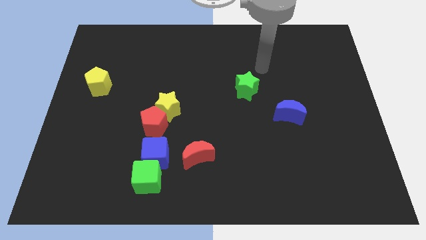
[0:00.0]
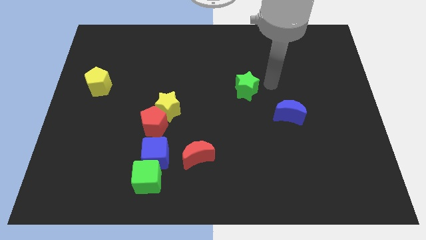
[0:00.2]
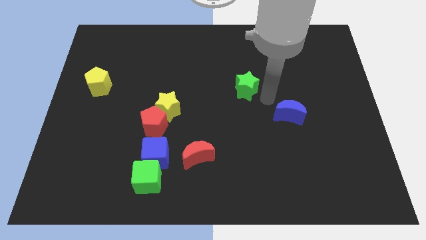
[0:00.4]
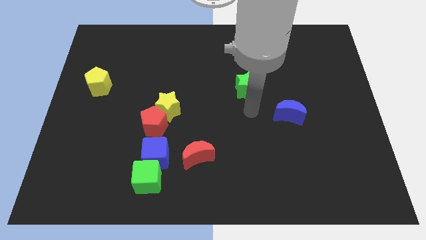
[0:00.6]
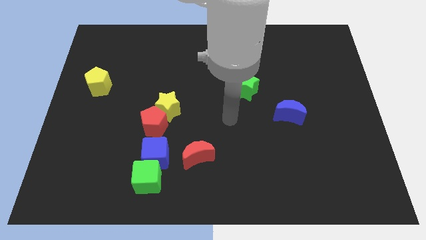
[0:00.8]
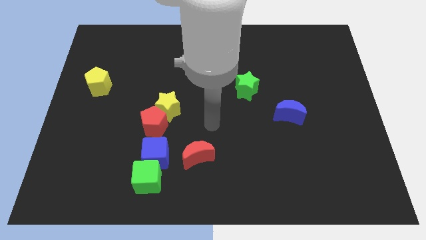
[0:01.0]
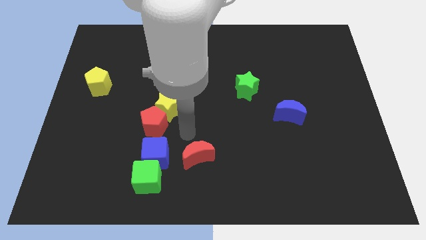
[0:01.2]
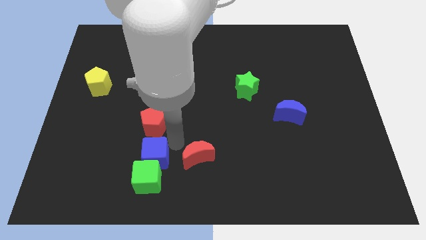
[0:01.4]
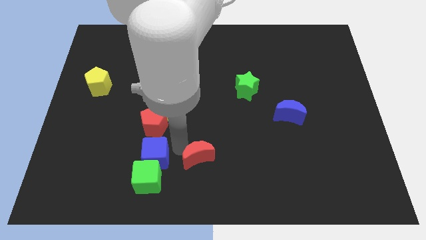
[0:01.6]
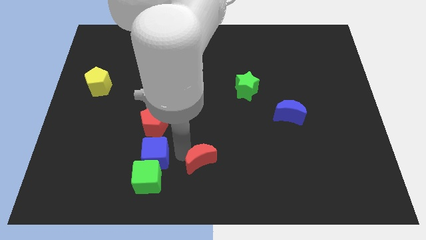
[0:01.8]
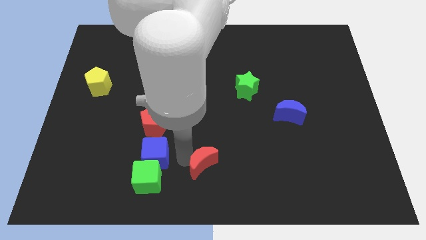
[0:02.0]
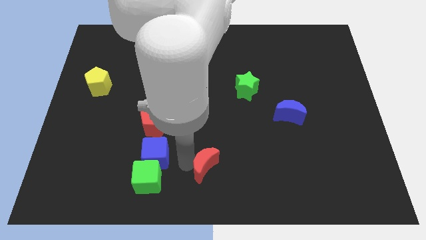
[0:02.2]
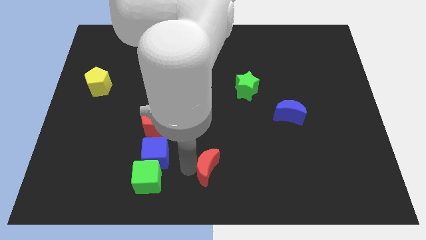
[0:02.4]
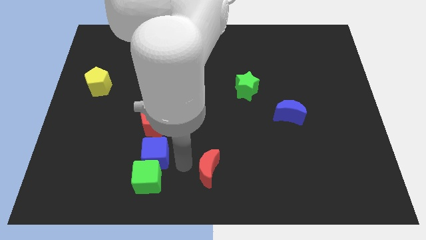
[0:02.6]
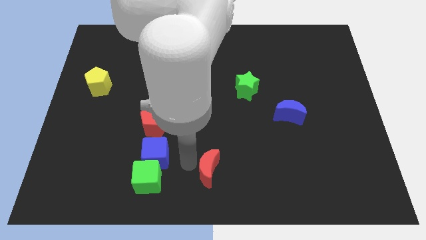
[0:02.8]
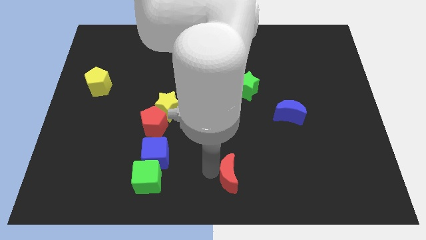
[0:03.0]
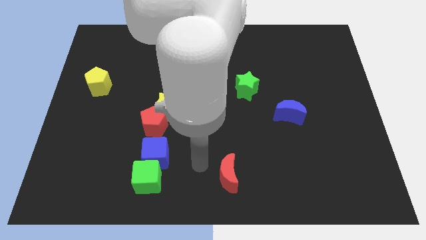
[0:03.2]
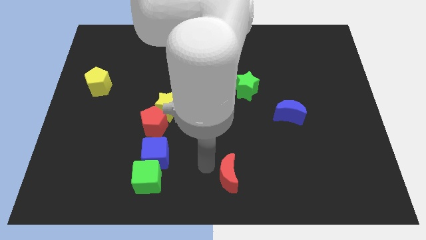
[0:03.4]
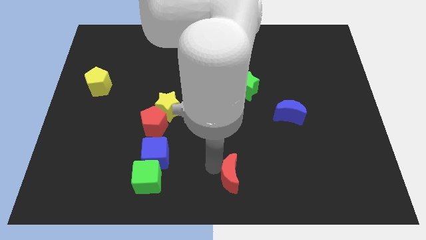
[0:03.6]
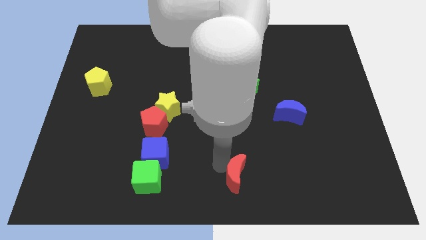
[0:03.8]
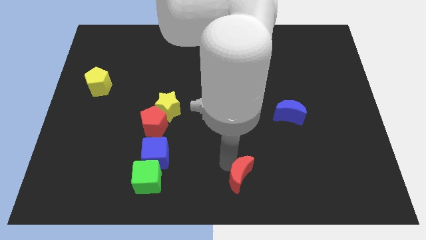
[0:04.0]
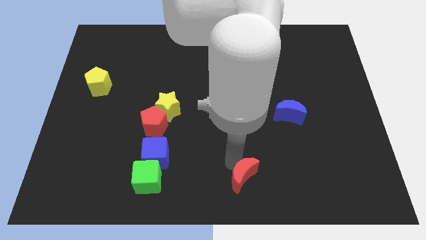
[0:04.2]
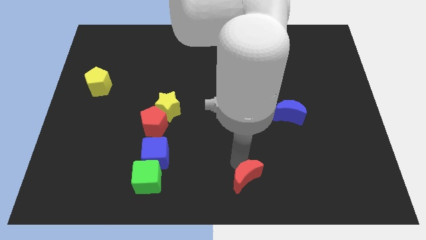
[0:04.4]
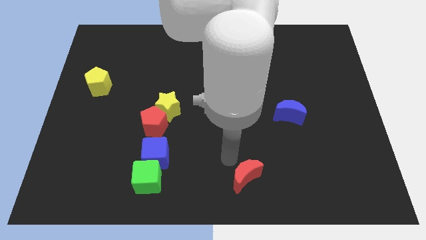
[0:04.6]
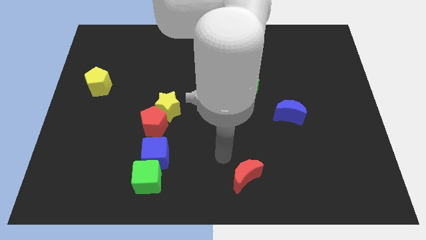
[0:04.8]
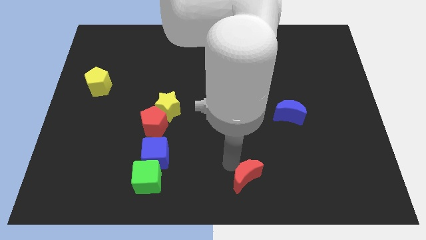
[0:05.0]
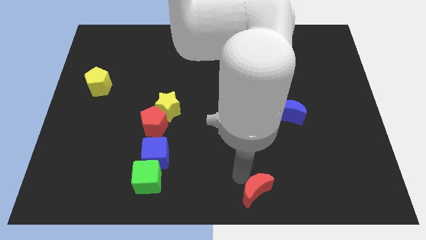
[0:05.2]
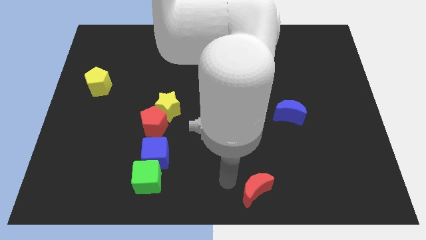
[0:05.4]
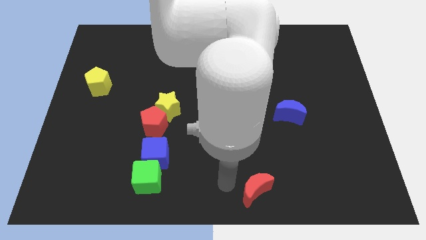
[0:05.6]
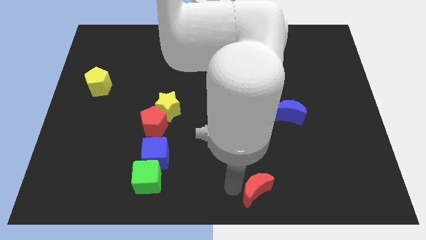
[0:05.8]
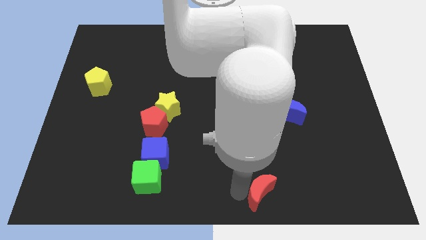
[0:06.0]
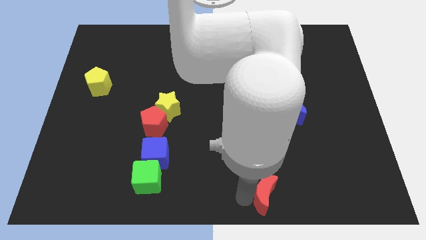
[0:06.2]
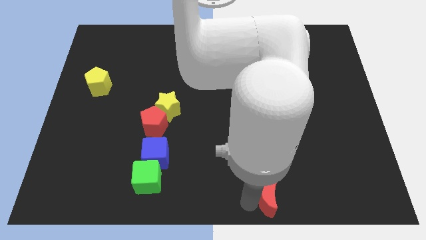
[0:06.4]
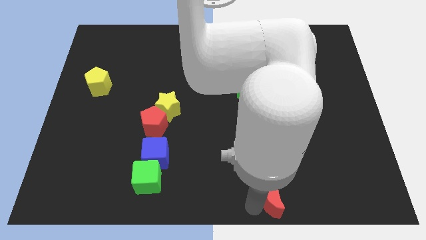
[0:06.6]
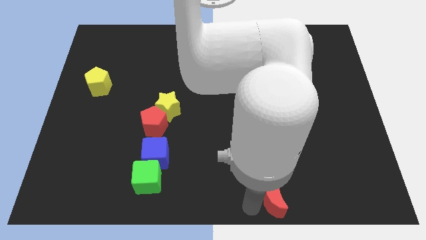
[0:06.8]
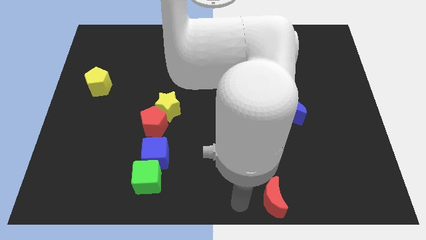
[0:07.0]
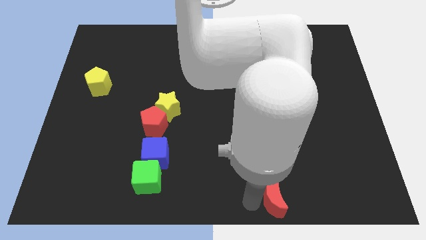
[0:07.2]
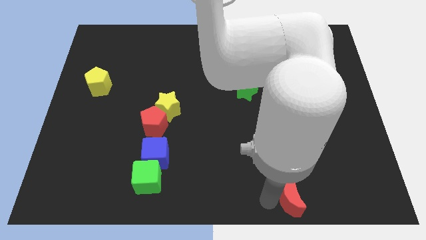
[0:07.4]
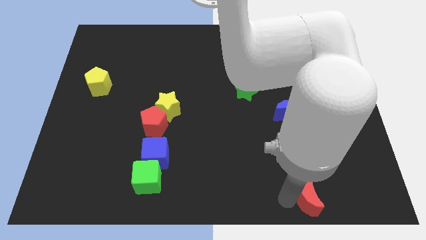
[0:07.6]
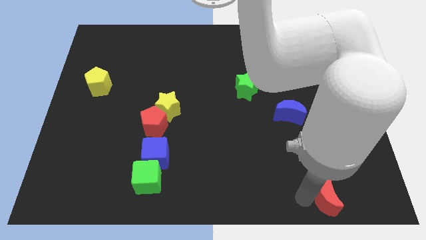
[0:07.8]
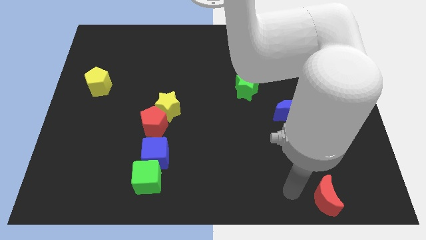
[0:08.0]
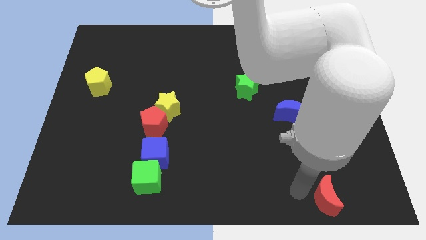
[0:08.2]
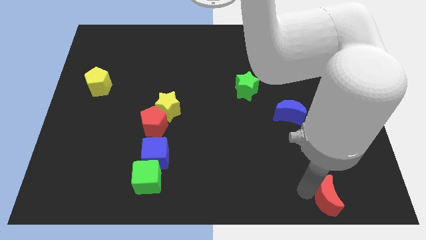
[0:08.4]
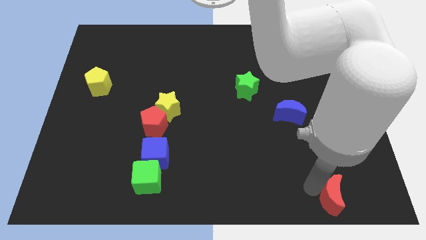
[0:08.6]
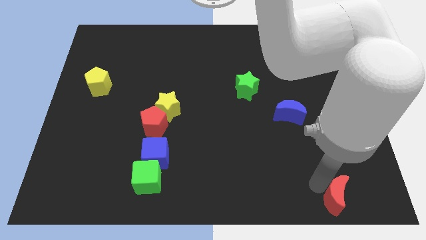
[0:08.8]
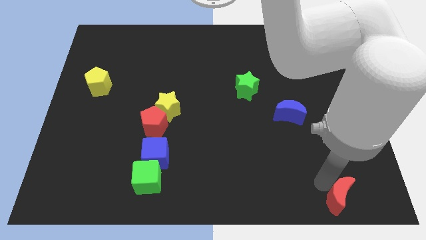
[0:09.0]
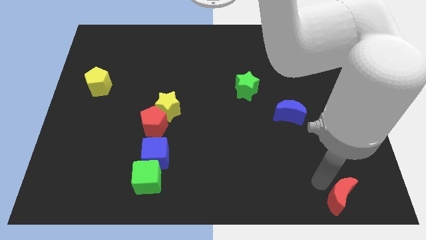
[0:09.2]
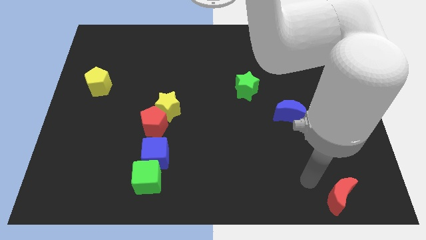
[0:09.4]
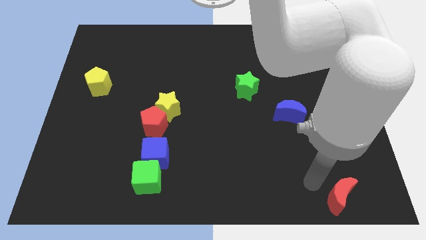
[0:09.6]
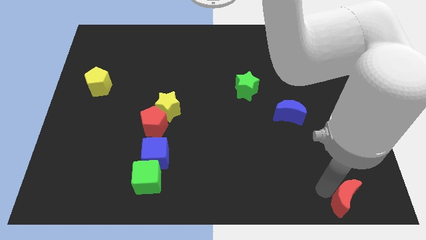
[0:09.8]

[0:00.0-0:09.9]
push the red moon to the bottom right corner
